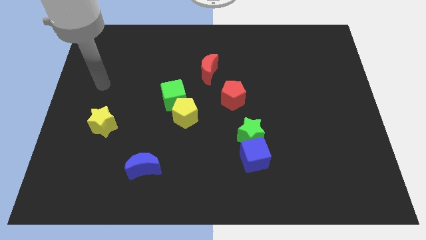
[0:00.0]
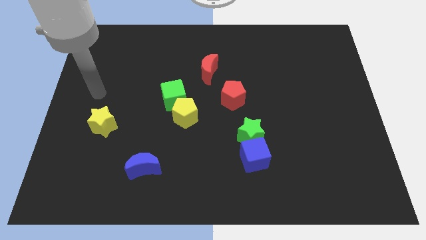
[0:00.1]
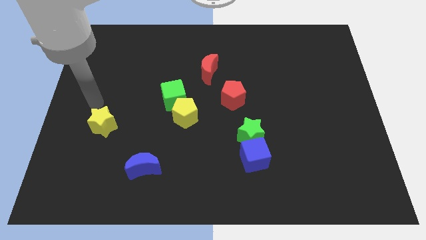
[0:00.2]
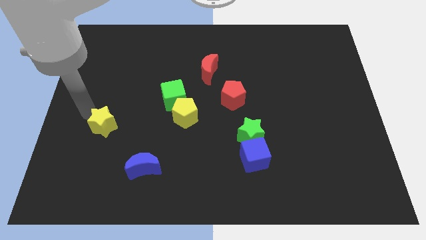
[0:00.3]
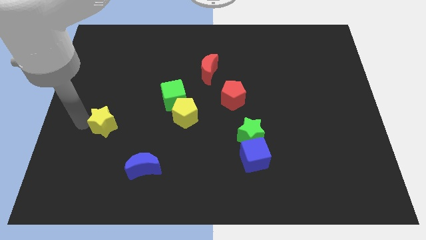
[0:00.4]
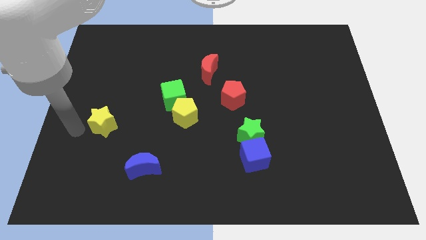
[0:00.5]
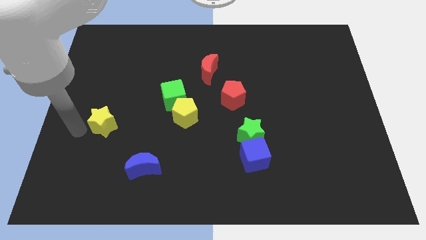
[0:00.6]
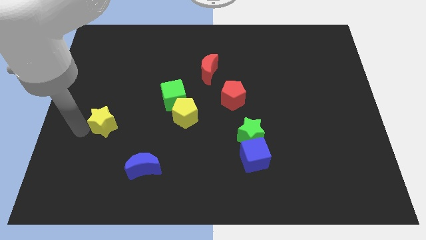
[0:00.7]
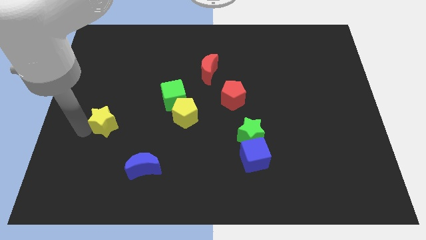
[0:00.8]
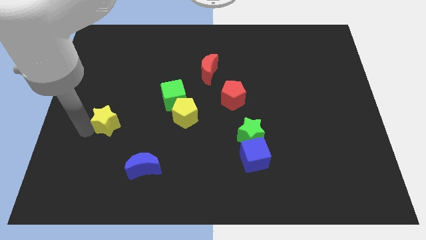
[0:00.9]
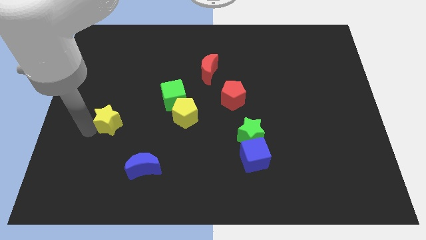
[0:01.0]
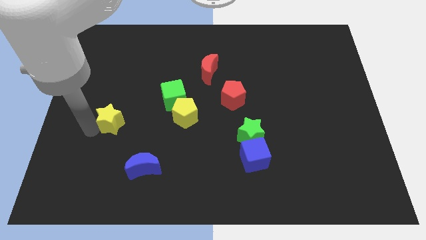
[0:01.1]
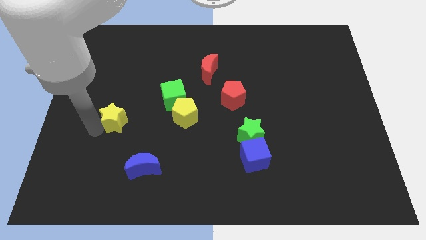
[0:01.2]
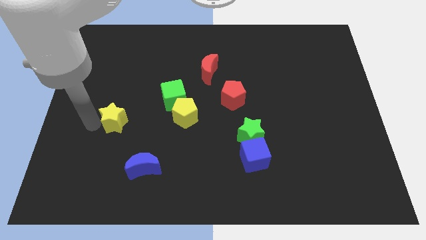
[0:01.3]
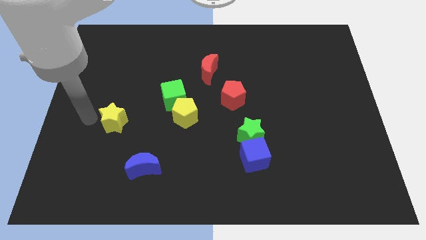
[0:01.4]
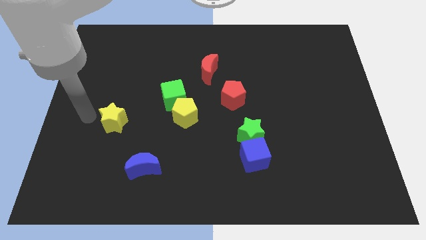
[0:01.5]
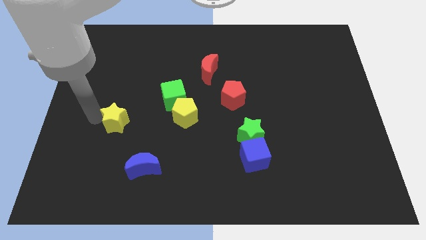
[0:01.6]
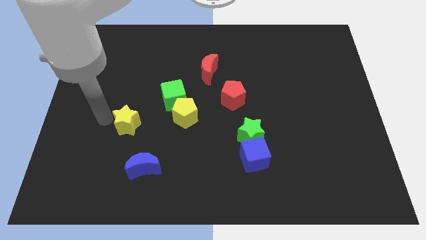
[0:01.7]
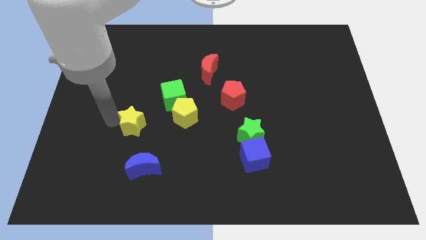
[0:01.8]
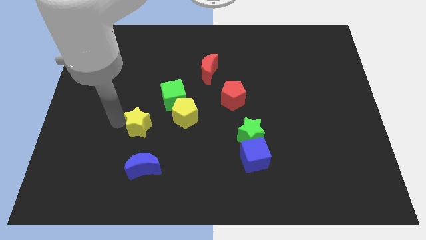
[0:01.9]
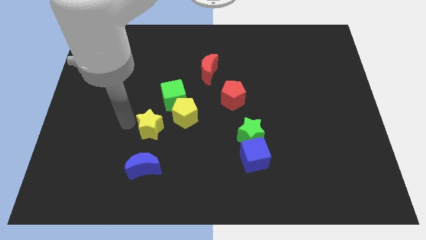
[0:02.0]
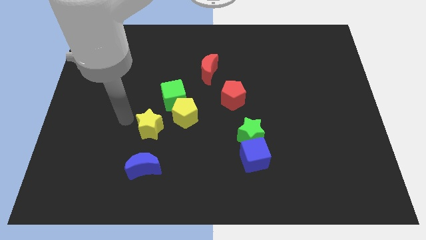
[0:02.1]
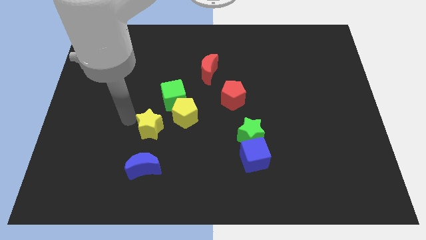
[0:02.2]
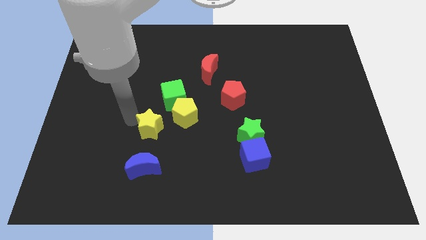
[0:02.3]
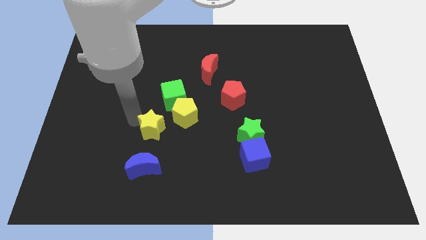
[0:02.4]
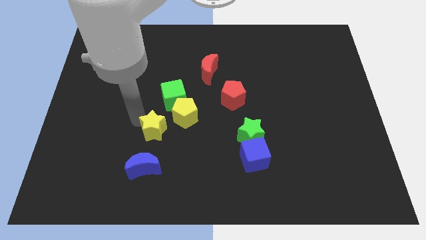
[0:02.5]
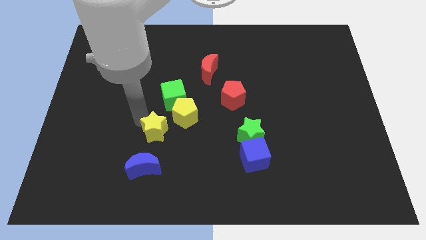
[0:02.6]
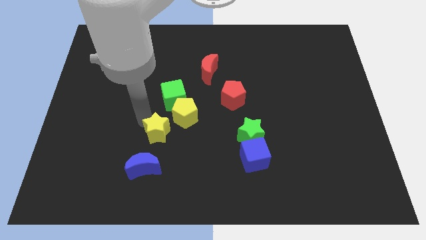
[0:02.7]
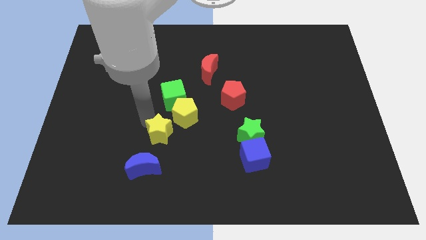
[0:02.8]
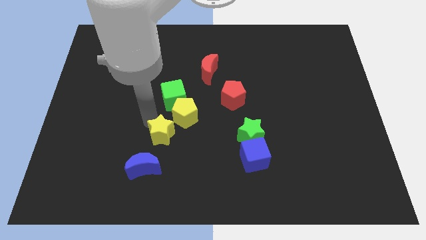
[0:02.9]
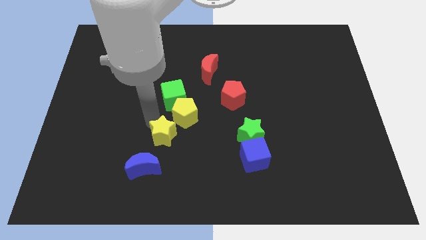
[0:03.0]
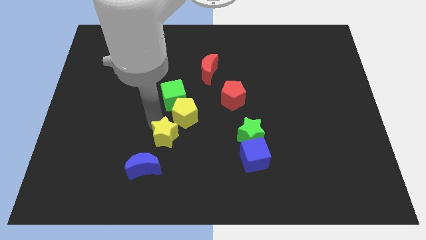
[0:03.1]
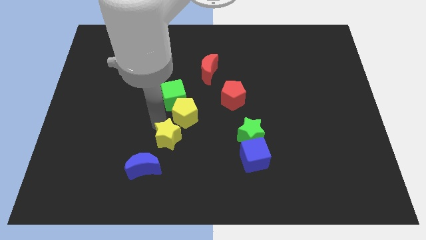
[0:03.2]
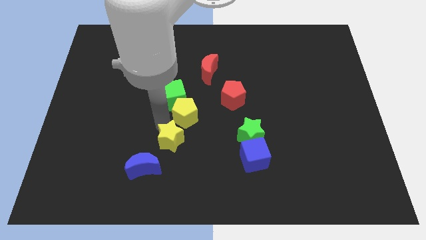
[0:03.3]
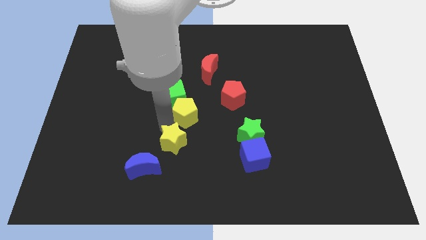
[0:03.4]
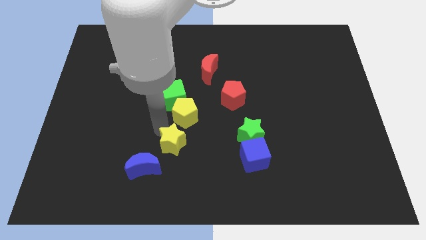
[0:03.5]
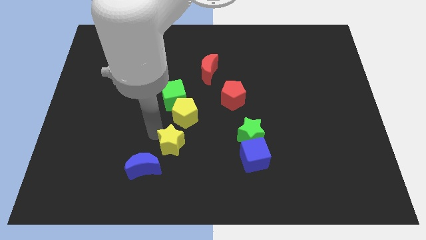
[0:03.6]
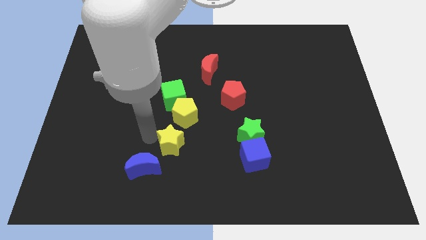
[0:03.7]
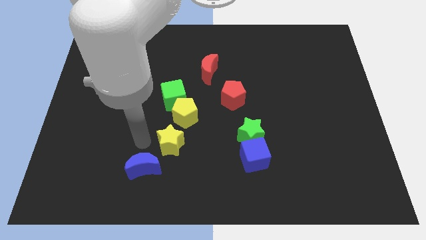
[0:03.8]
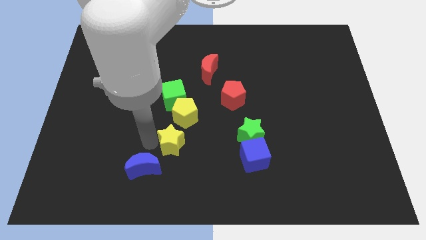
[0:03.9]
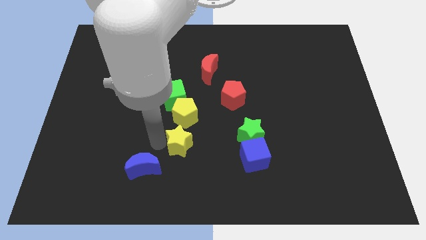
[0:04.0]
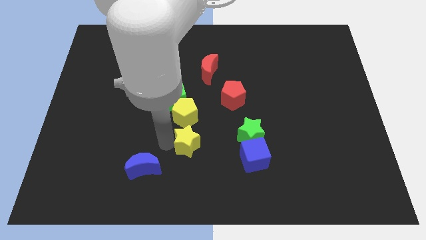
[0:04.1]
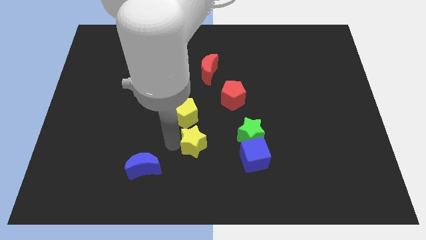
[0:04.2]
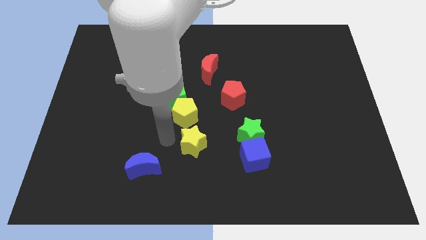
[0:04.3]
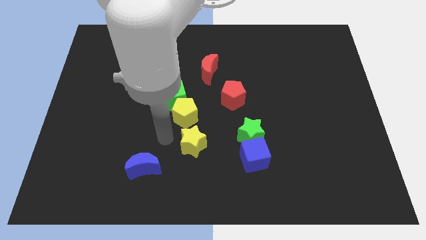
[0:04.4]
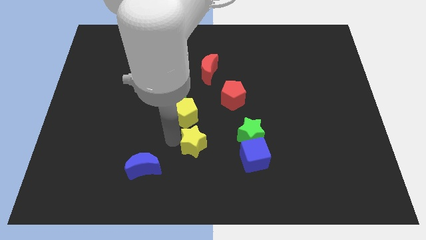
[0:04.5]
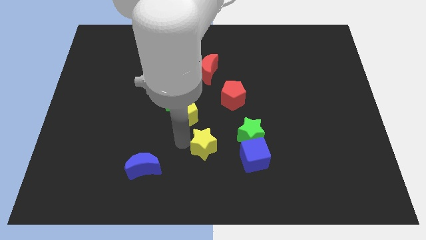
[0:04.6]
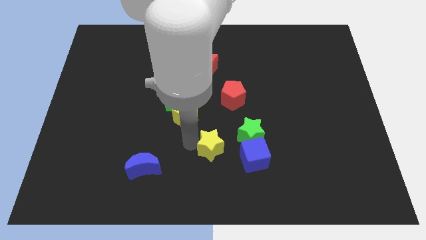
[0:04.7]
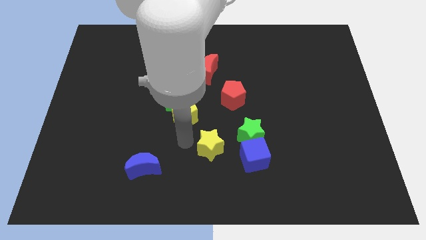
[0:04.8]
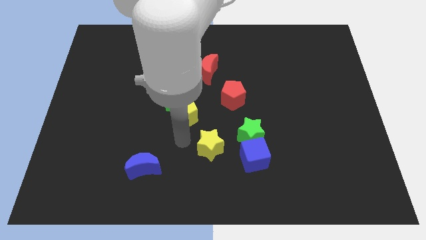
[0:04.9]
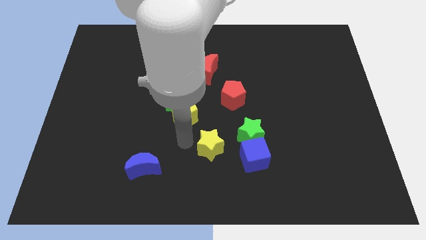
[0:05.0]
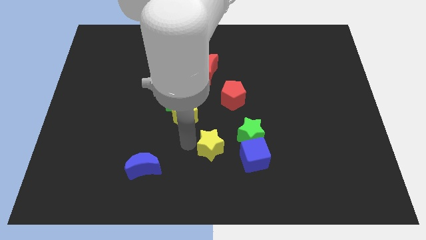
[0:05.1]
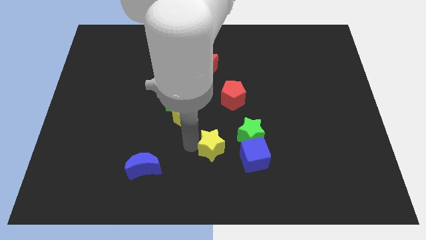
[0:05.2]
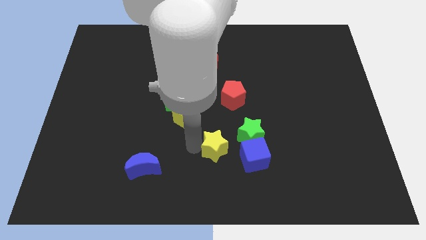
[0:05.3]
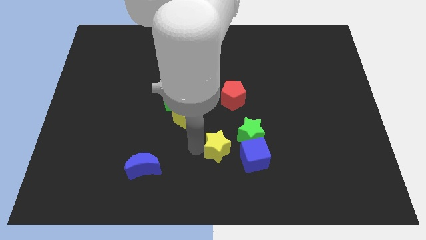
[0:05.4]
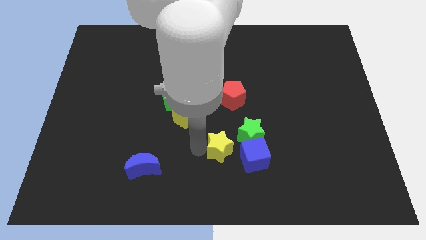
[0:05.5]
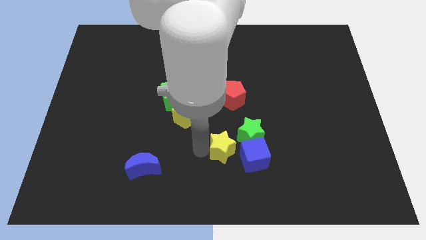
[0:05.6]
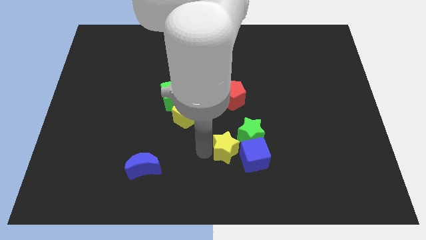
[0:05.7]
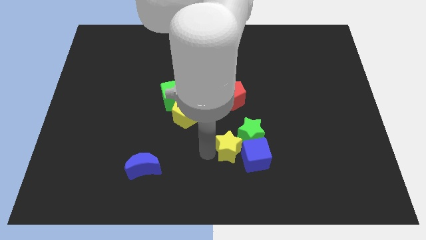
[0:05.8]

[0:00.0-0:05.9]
slide the yellow star next to the blue cube

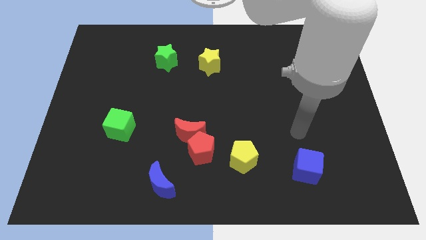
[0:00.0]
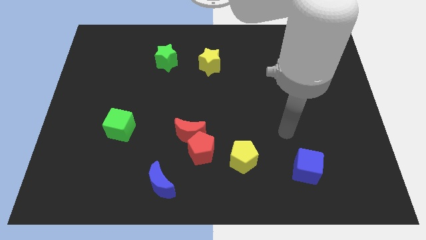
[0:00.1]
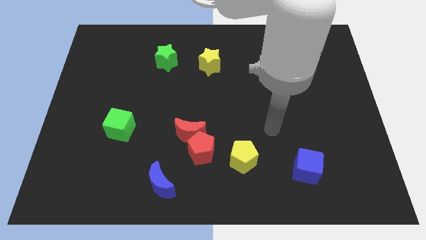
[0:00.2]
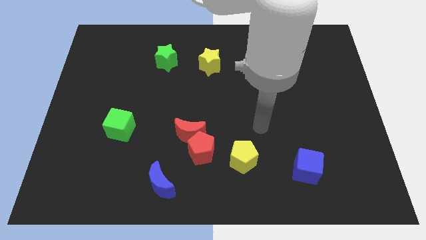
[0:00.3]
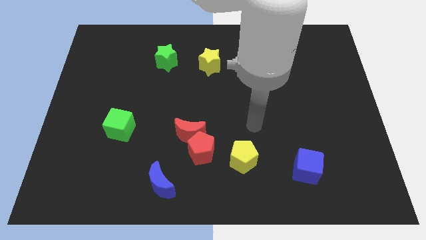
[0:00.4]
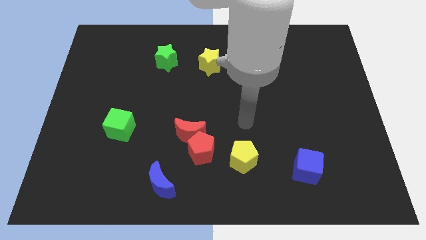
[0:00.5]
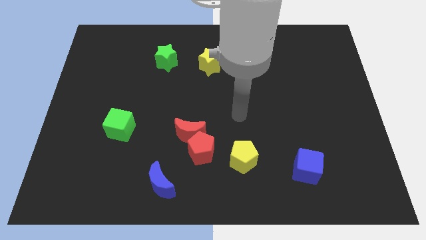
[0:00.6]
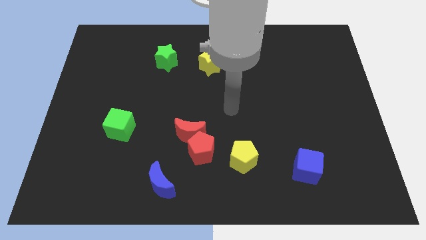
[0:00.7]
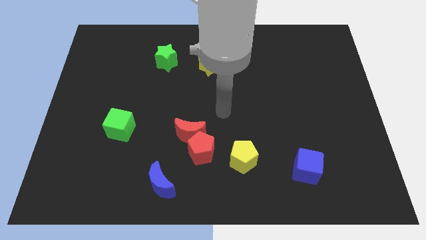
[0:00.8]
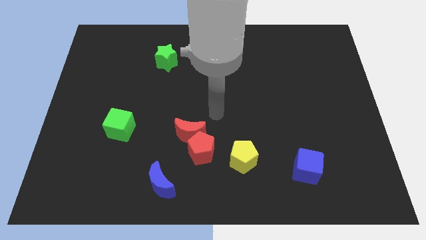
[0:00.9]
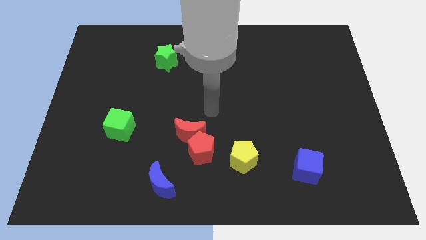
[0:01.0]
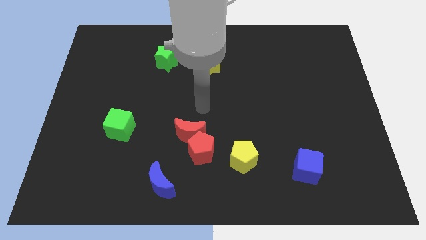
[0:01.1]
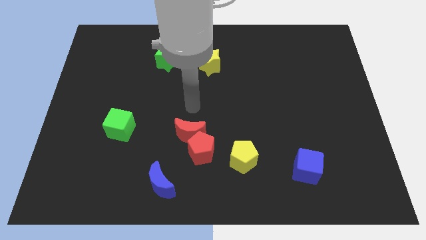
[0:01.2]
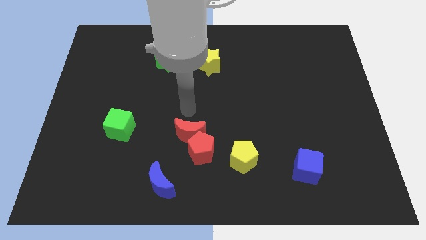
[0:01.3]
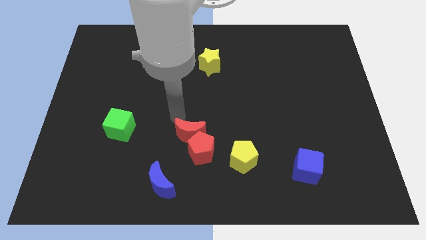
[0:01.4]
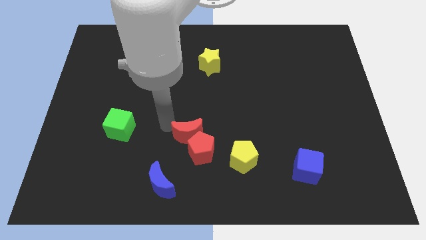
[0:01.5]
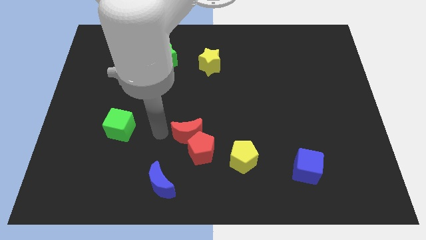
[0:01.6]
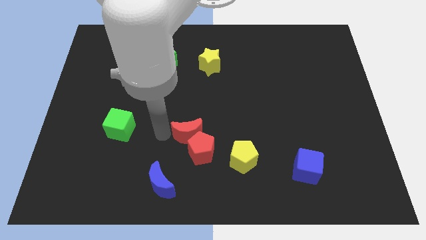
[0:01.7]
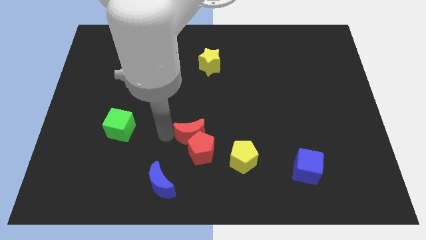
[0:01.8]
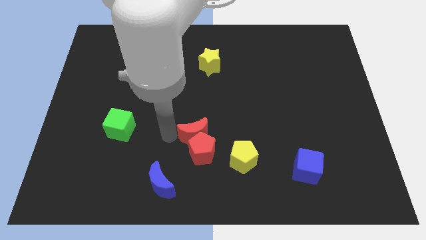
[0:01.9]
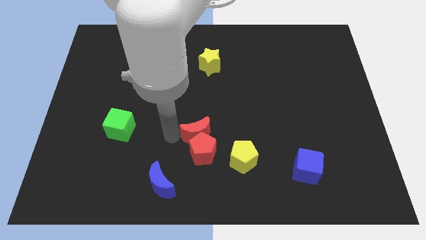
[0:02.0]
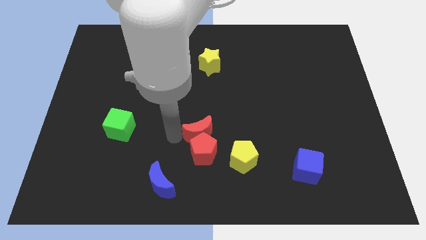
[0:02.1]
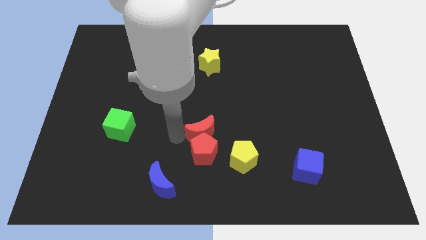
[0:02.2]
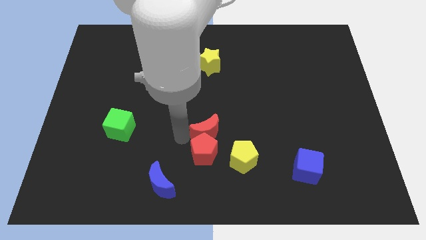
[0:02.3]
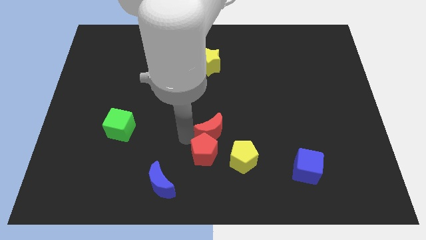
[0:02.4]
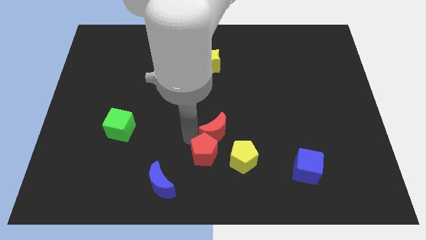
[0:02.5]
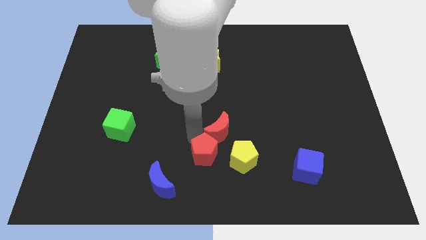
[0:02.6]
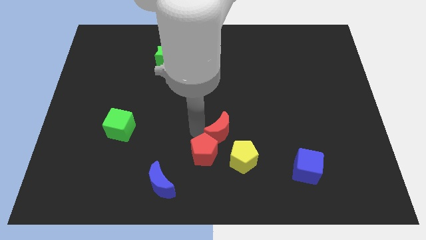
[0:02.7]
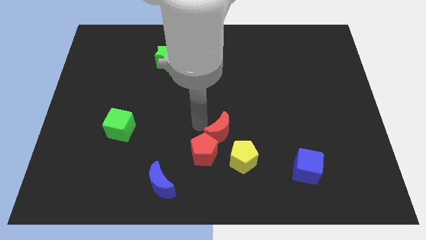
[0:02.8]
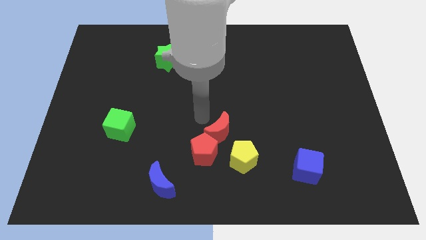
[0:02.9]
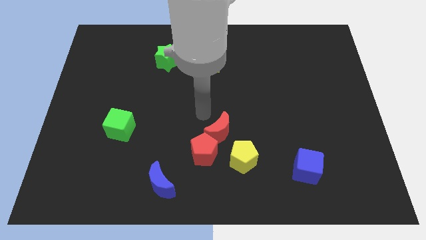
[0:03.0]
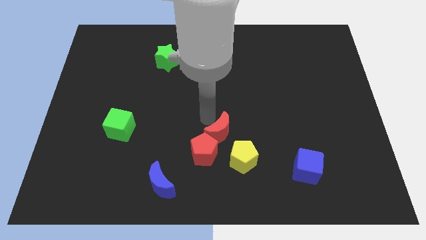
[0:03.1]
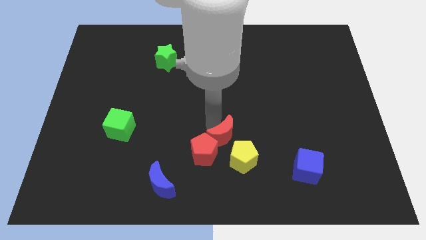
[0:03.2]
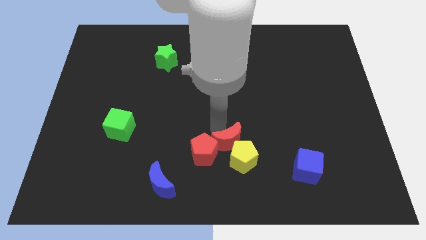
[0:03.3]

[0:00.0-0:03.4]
move the red moon close to the yellow pentagon
